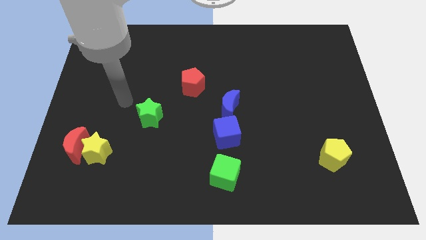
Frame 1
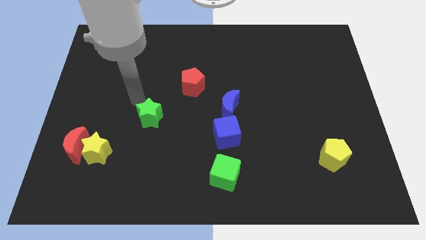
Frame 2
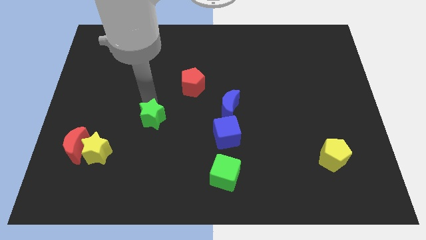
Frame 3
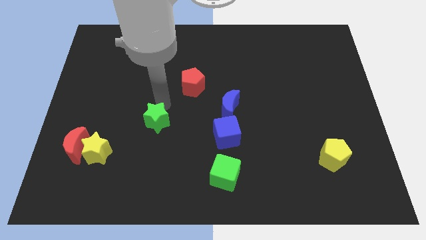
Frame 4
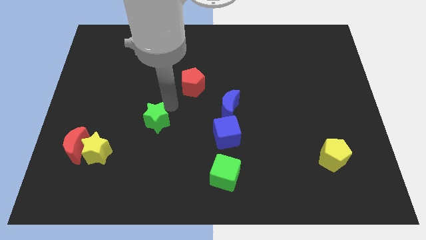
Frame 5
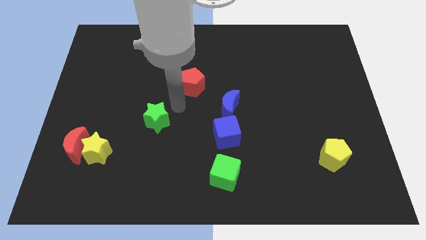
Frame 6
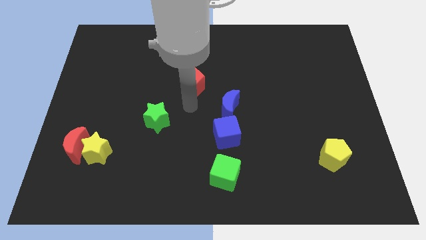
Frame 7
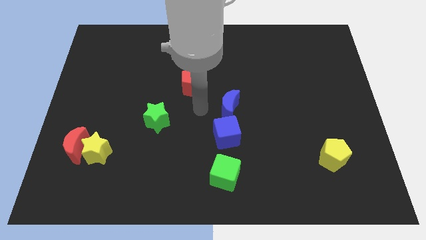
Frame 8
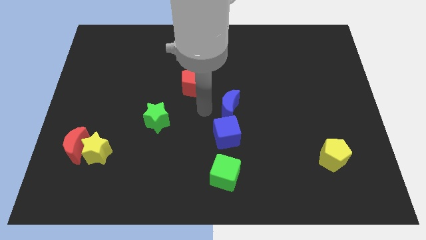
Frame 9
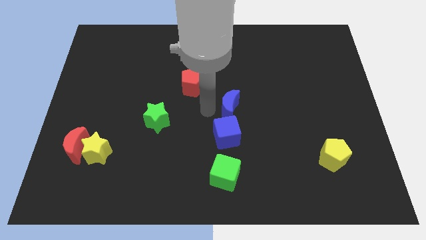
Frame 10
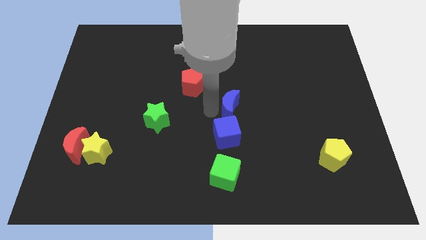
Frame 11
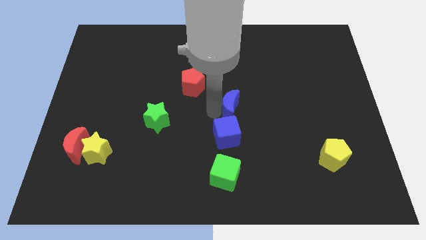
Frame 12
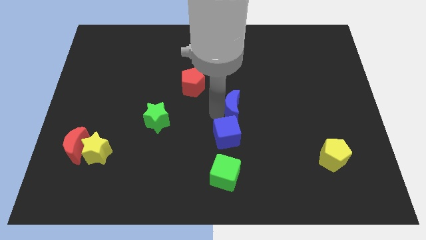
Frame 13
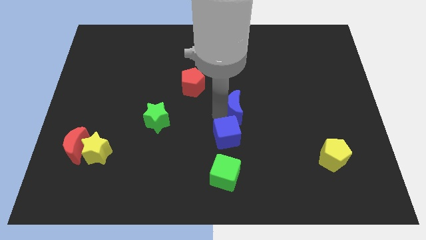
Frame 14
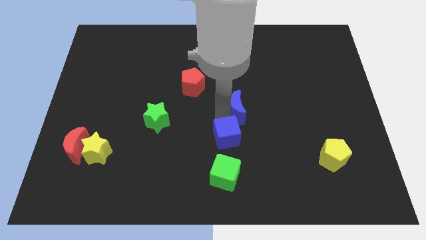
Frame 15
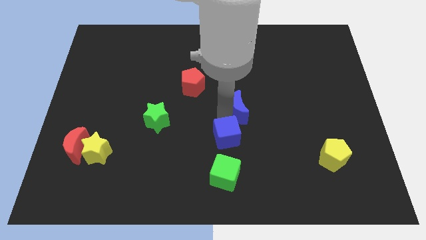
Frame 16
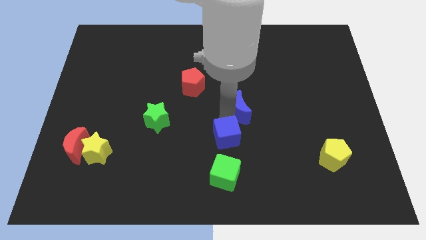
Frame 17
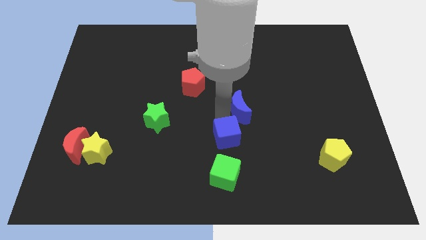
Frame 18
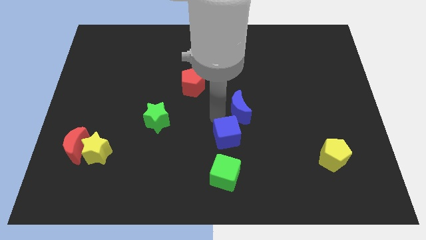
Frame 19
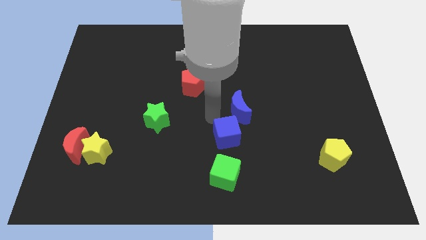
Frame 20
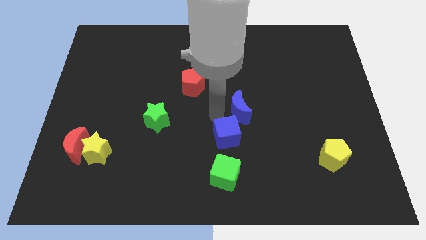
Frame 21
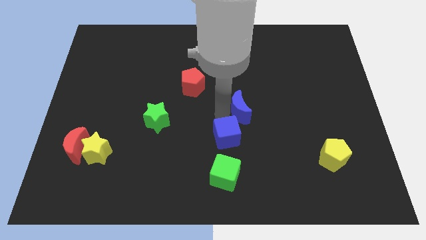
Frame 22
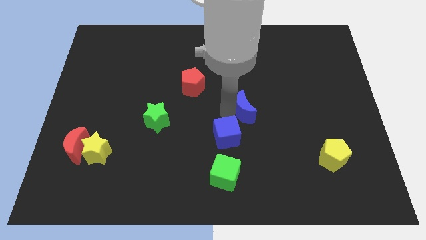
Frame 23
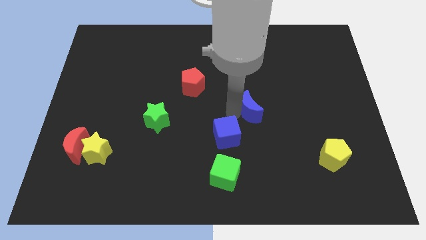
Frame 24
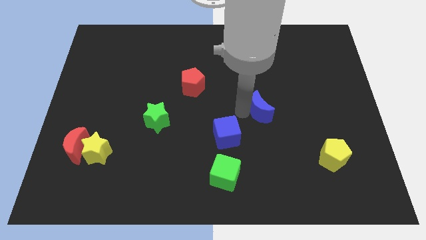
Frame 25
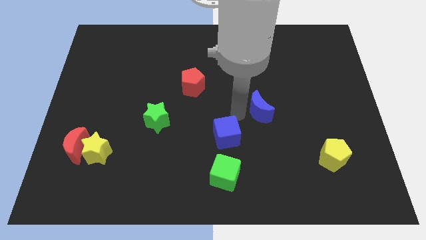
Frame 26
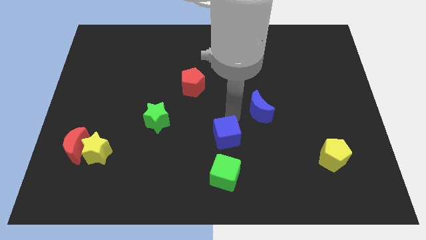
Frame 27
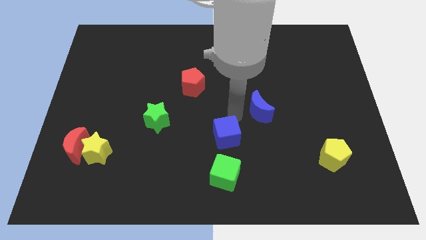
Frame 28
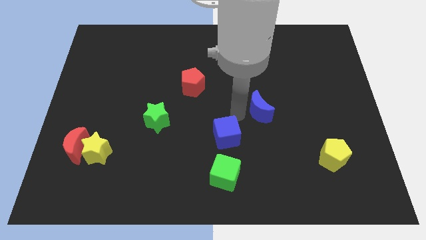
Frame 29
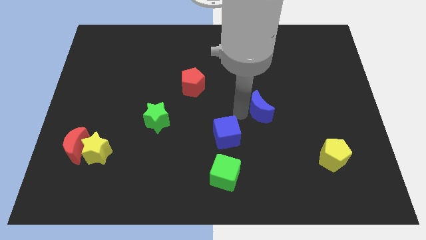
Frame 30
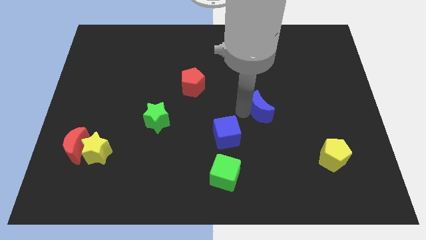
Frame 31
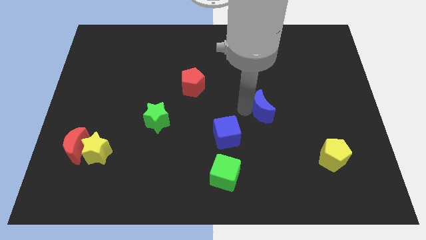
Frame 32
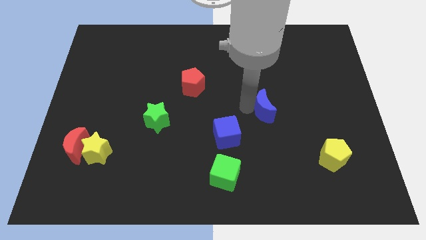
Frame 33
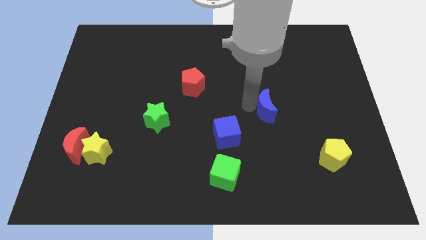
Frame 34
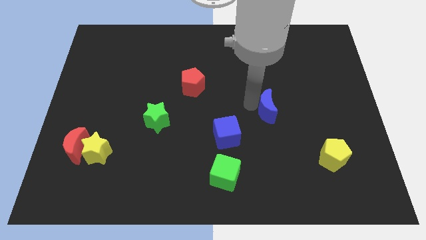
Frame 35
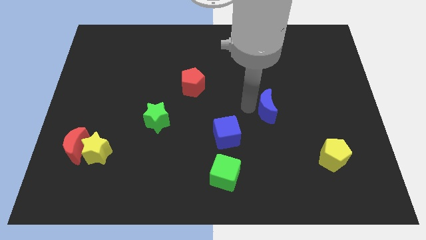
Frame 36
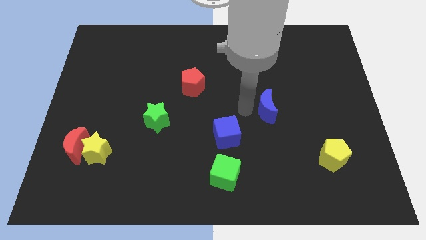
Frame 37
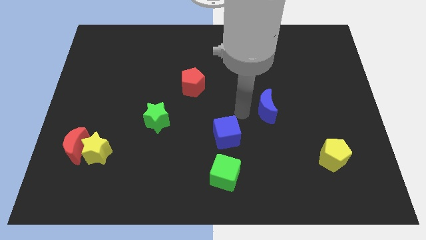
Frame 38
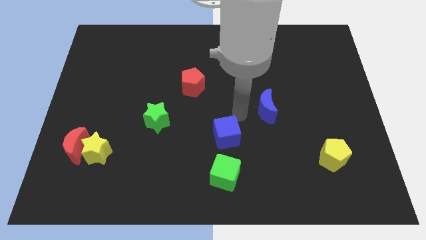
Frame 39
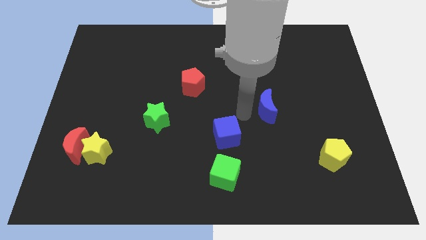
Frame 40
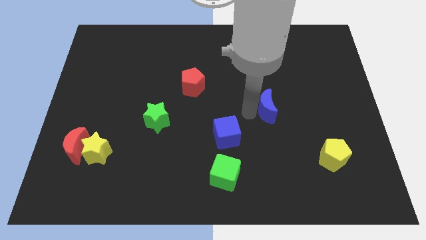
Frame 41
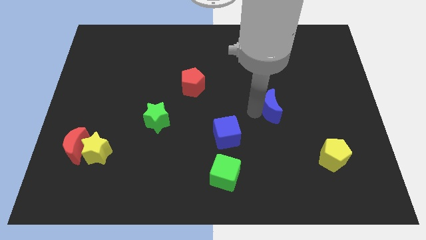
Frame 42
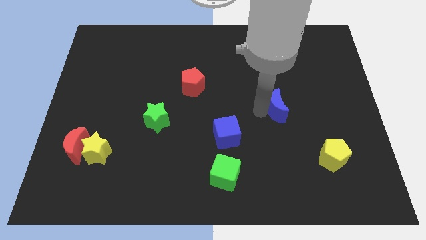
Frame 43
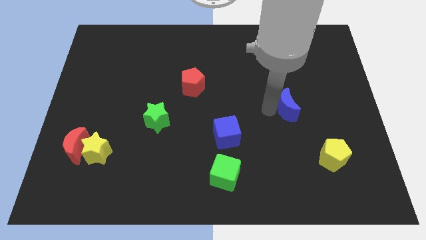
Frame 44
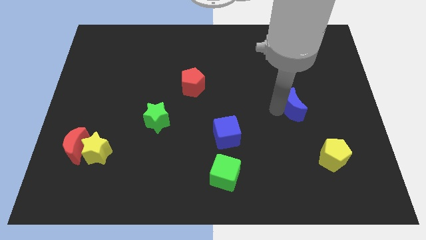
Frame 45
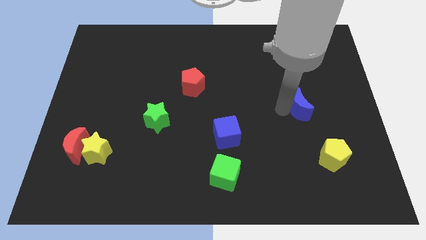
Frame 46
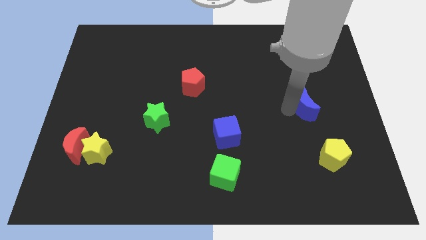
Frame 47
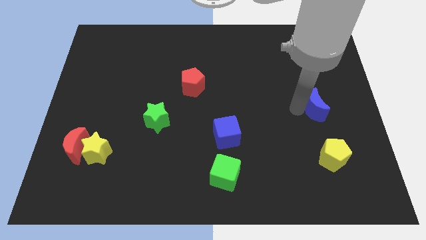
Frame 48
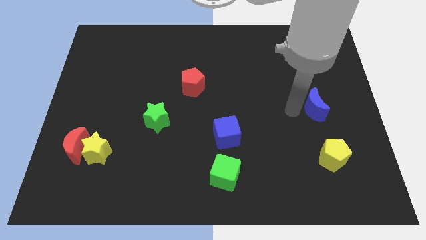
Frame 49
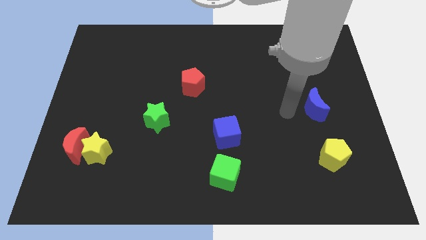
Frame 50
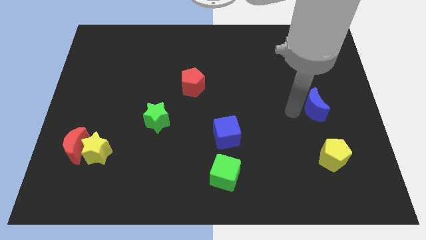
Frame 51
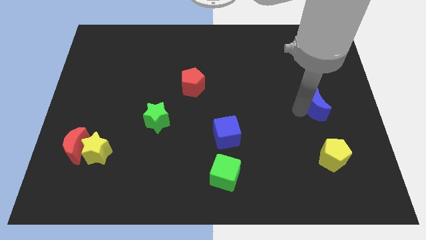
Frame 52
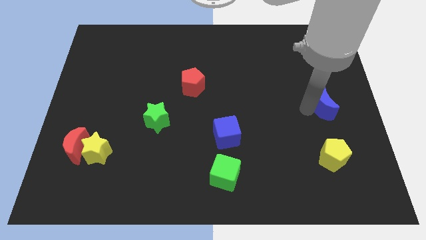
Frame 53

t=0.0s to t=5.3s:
slide the blue moon to the right side

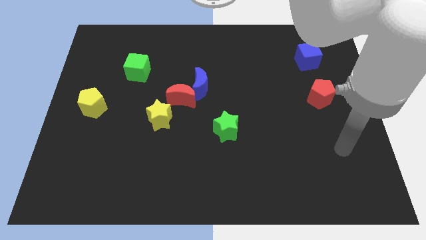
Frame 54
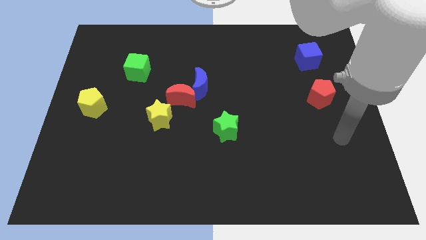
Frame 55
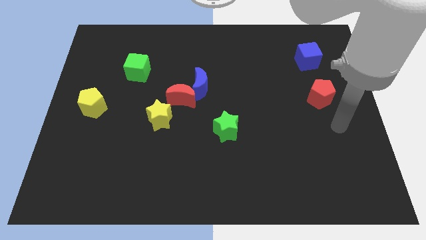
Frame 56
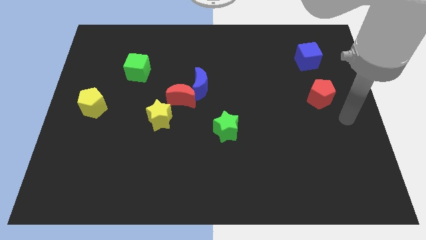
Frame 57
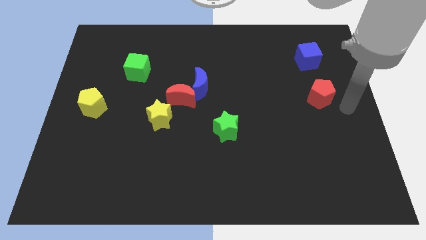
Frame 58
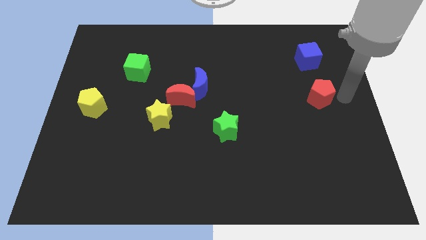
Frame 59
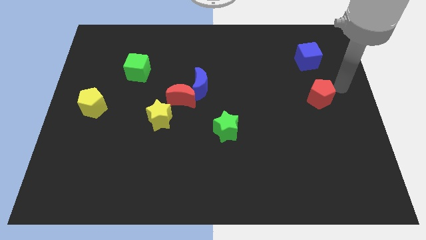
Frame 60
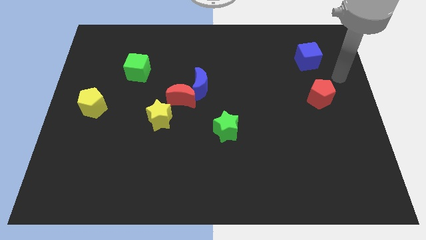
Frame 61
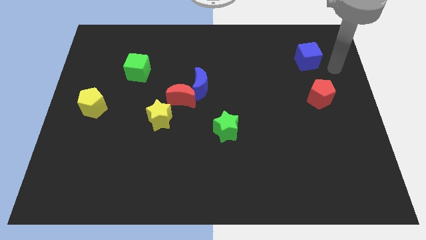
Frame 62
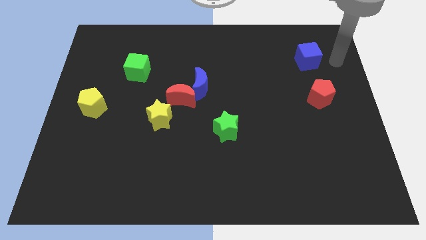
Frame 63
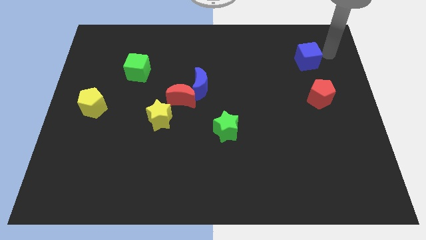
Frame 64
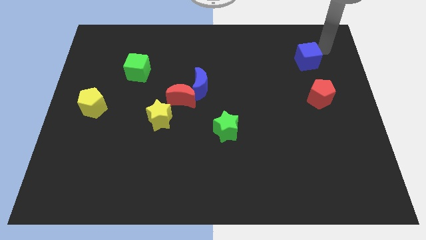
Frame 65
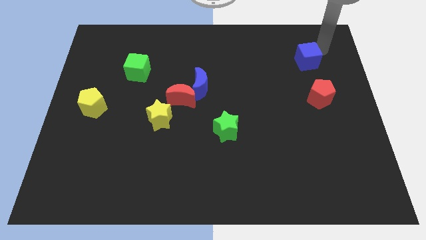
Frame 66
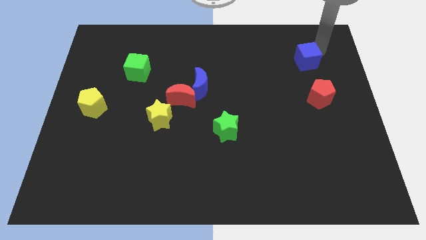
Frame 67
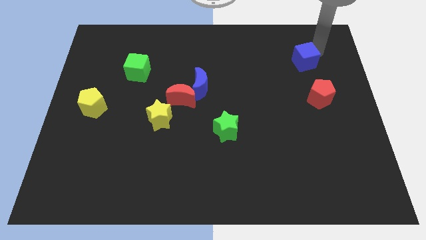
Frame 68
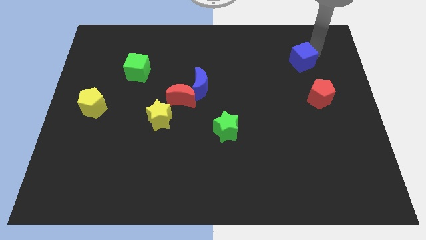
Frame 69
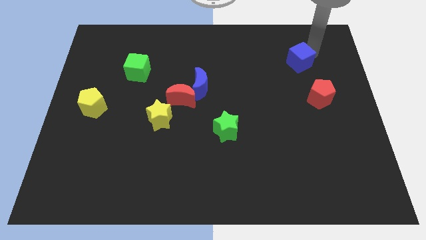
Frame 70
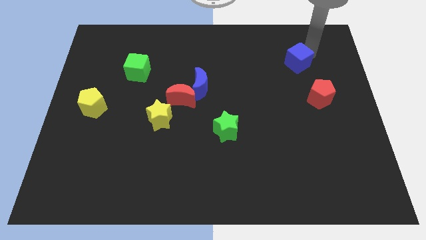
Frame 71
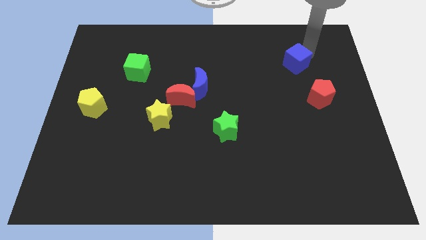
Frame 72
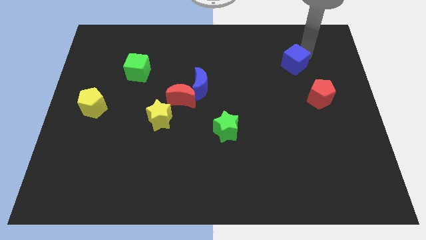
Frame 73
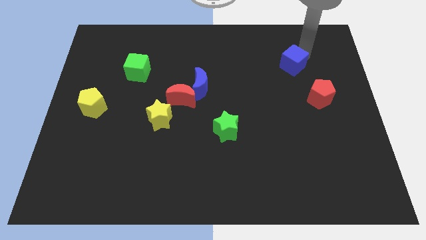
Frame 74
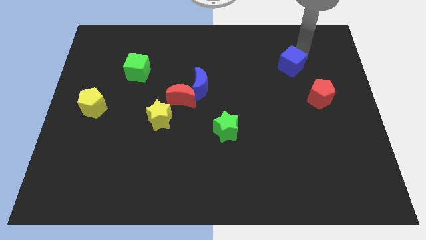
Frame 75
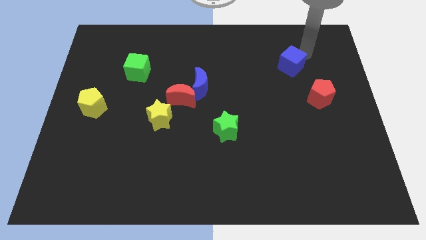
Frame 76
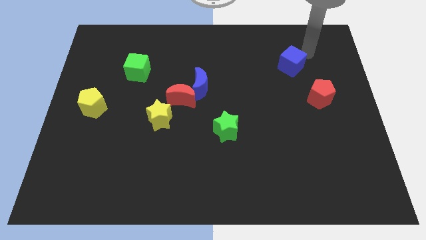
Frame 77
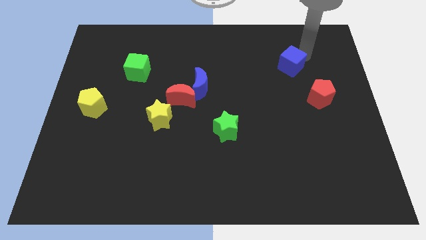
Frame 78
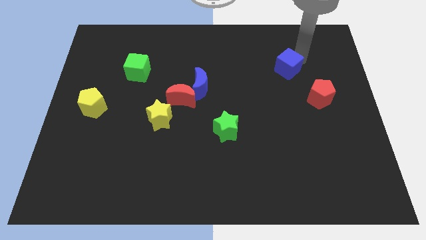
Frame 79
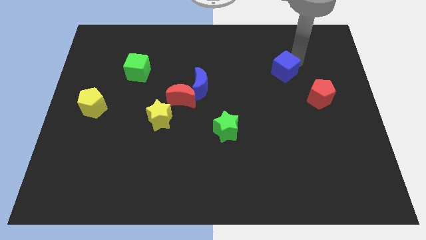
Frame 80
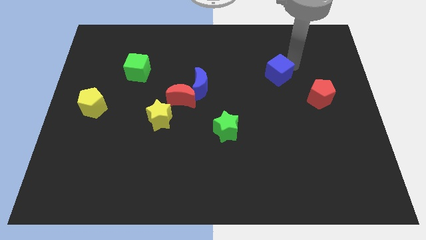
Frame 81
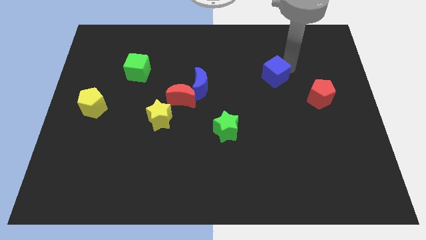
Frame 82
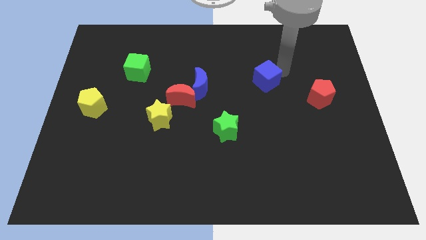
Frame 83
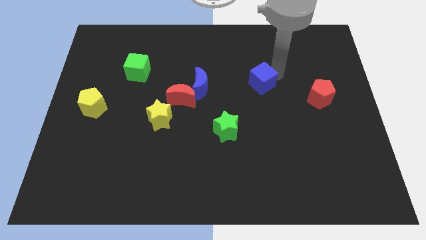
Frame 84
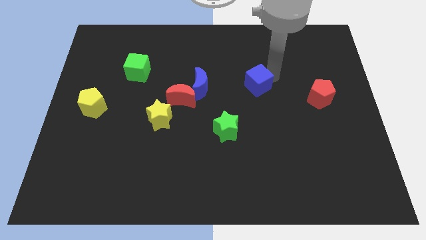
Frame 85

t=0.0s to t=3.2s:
move the blue cube to the center
